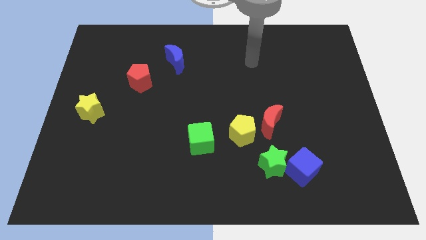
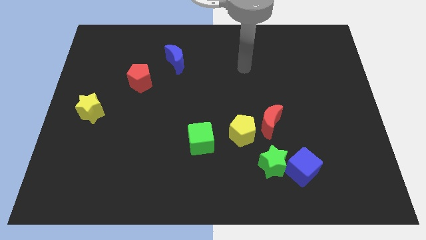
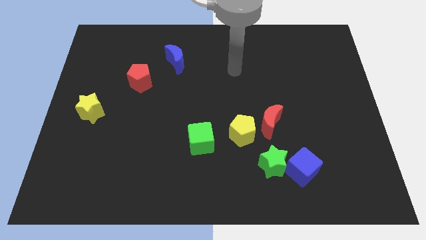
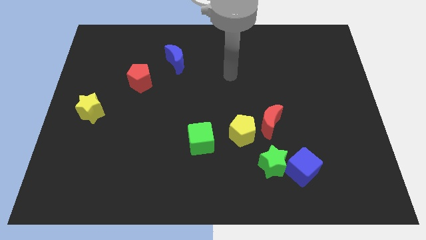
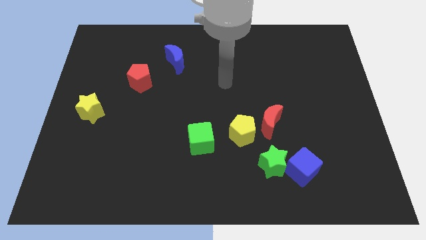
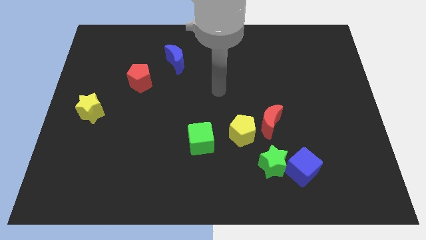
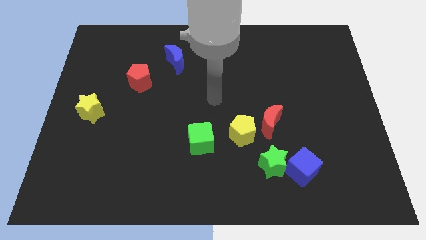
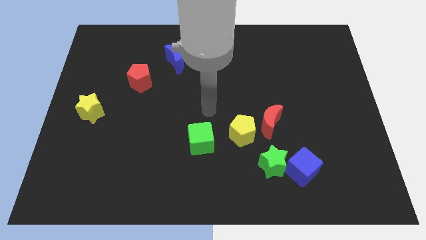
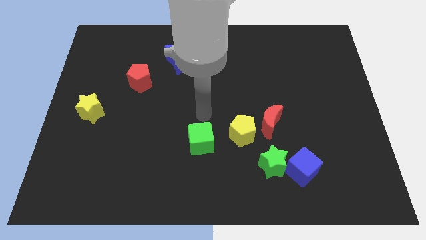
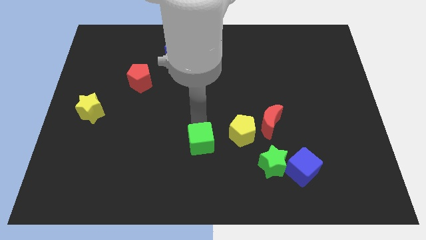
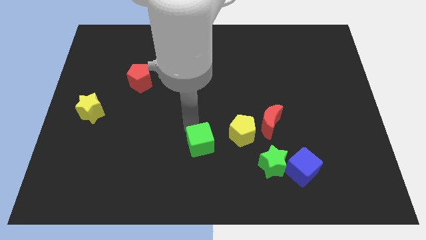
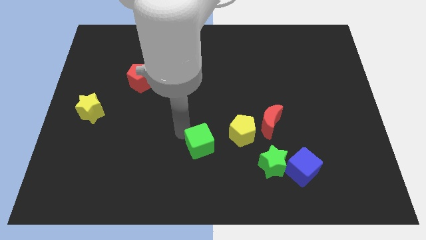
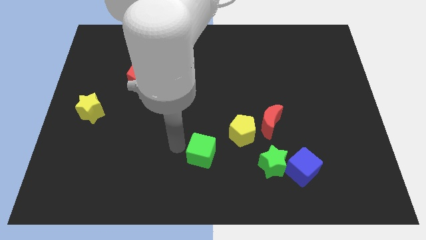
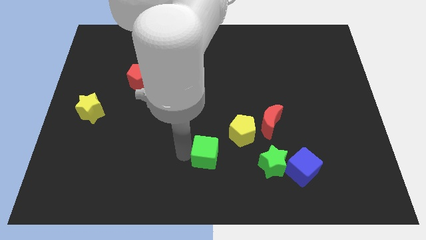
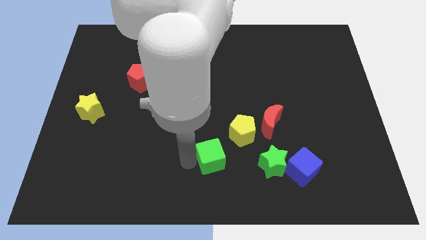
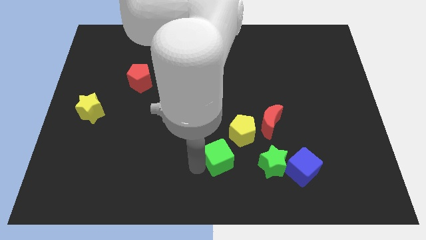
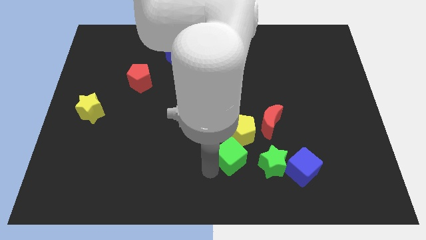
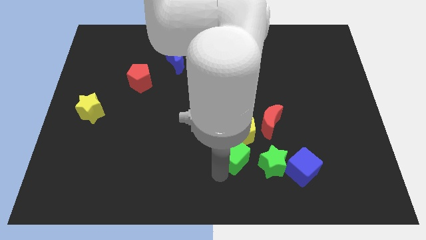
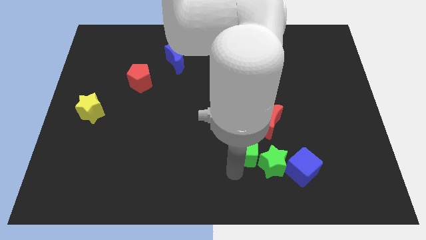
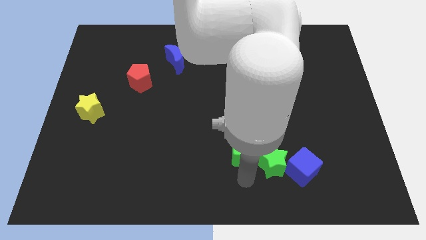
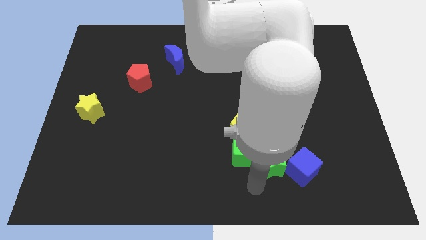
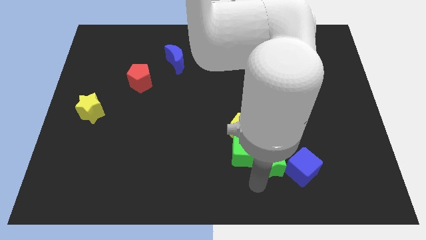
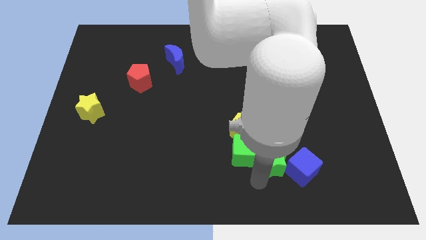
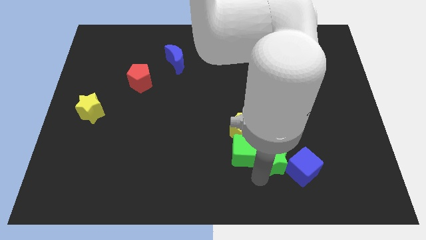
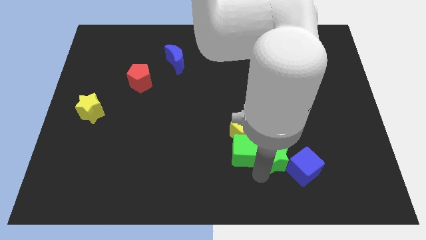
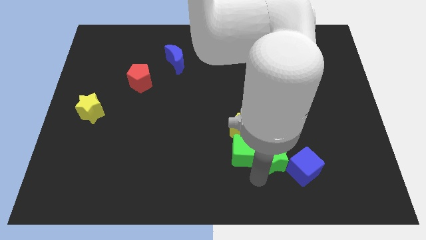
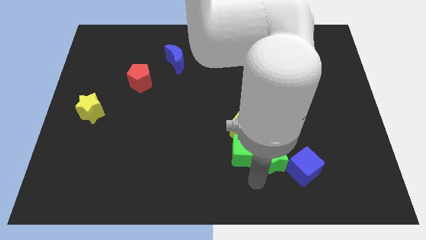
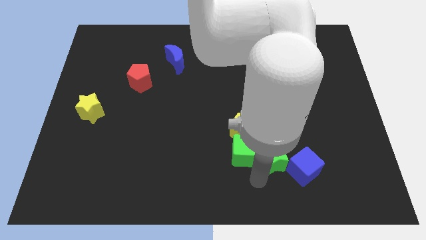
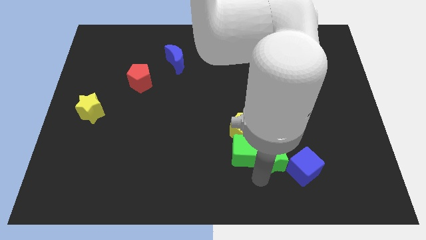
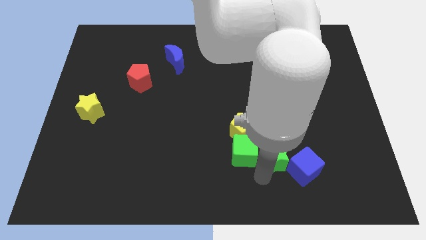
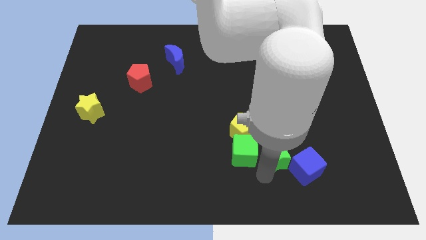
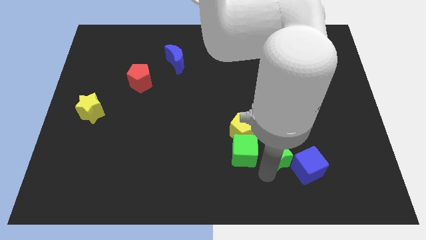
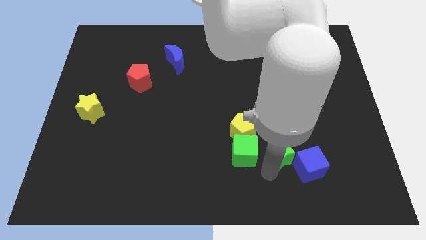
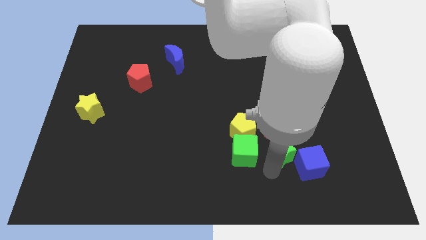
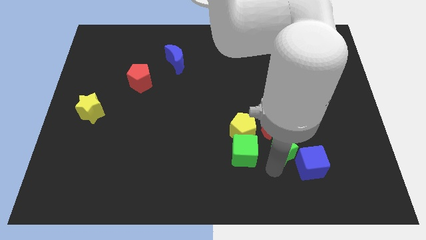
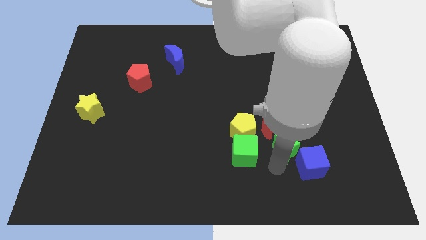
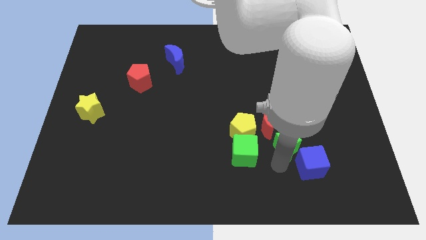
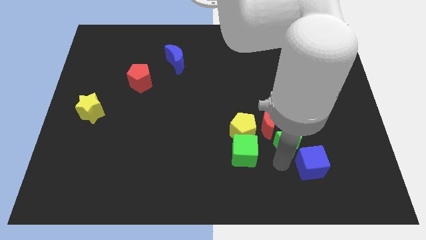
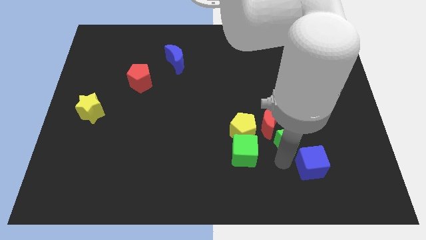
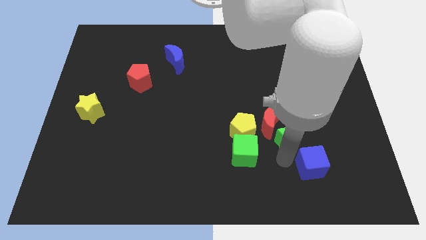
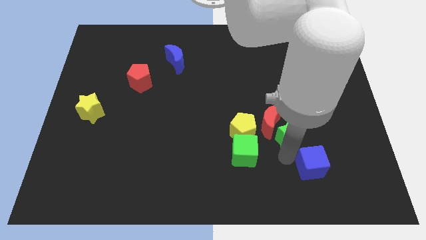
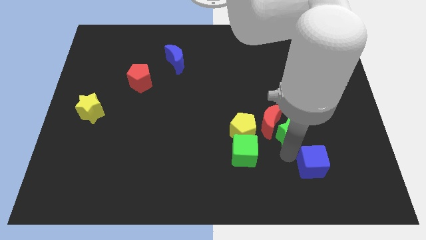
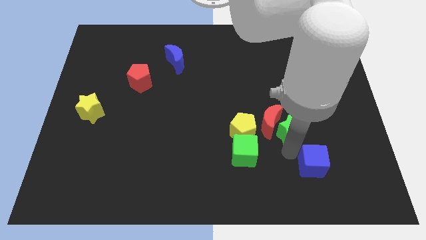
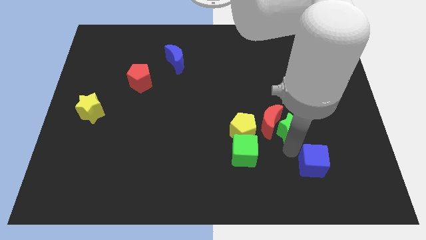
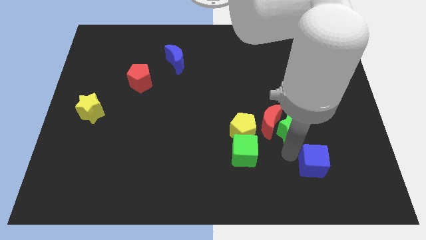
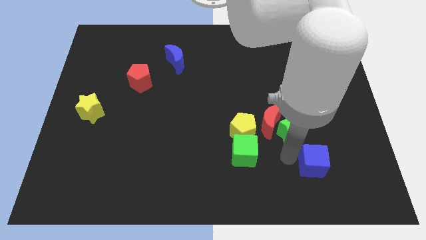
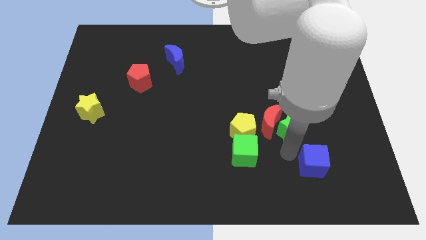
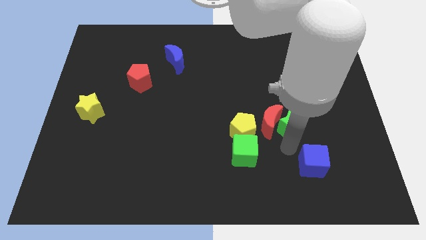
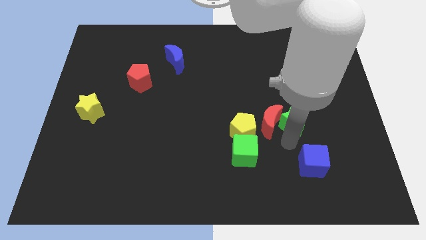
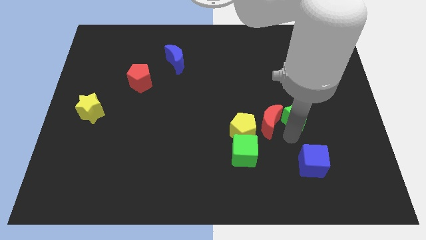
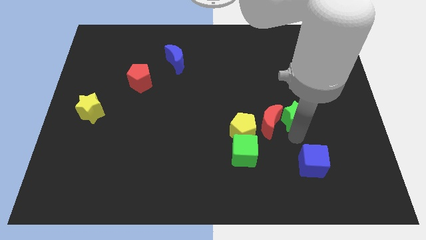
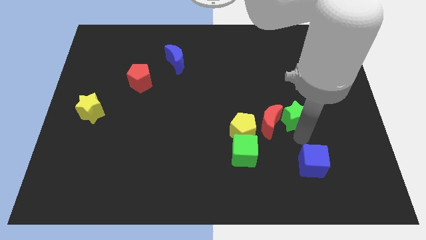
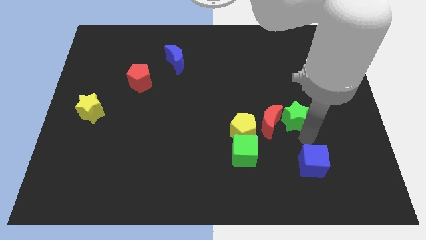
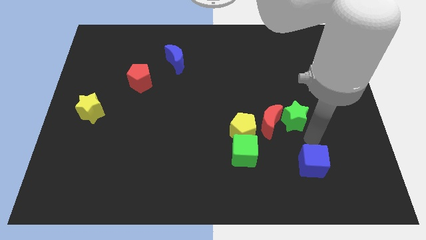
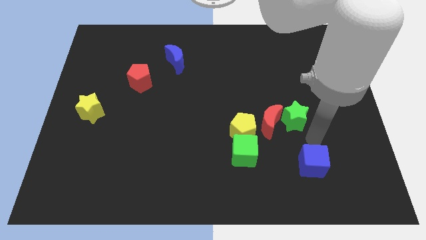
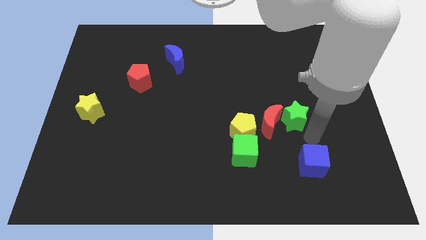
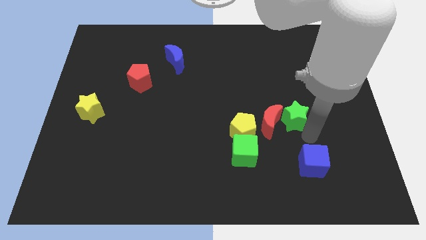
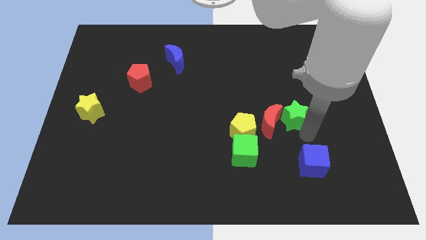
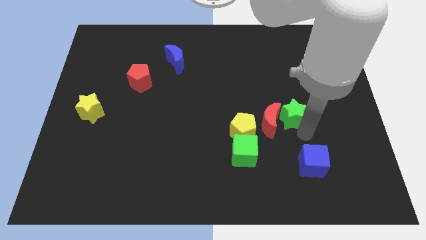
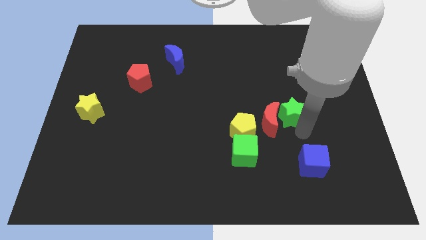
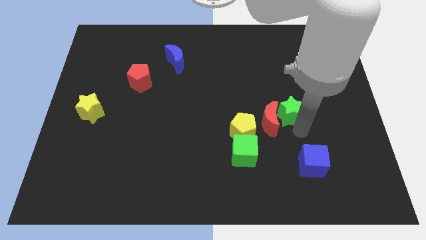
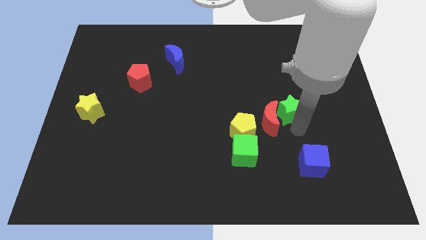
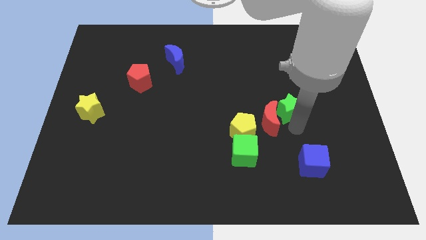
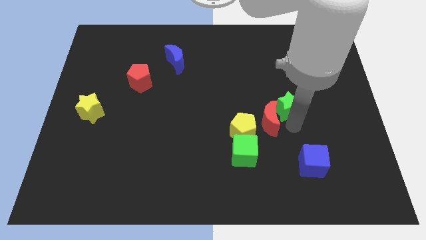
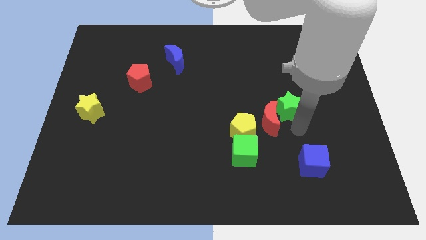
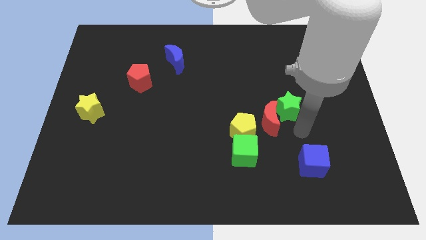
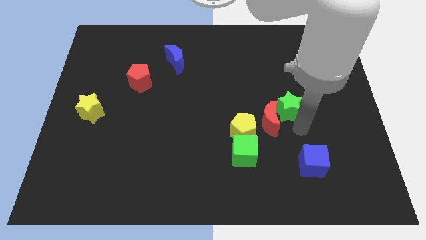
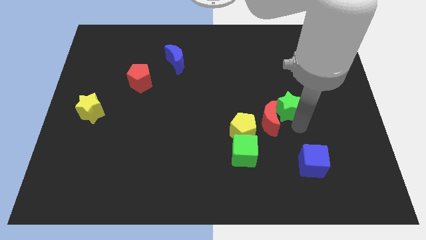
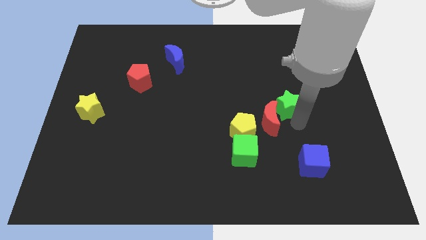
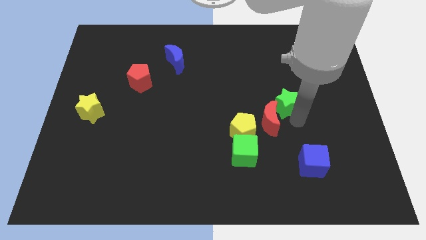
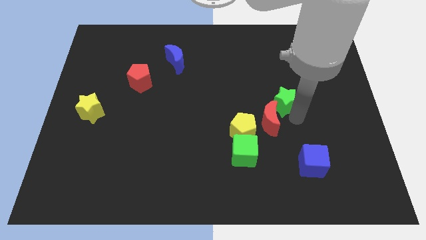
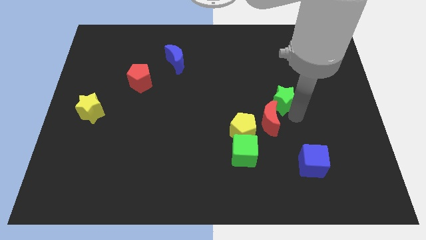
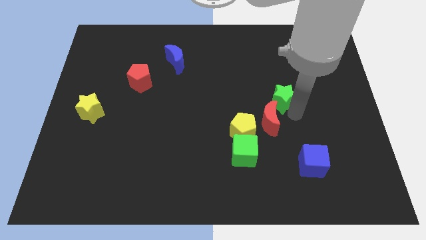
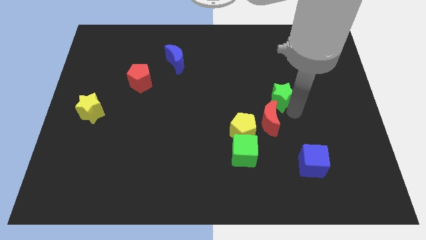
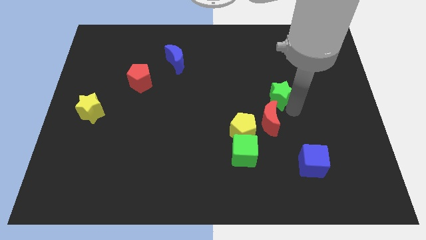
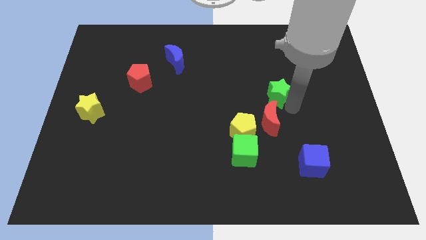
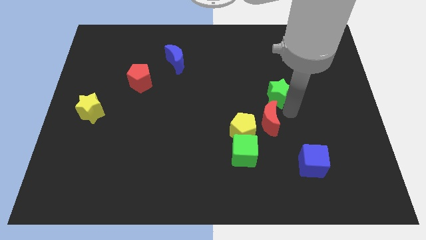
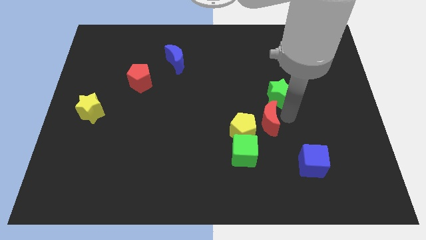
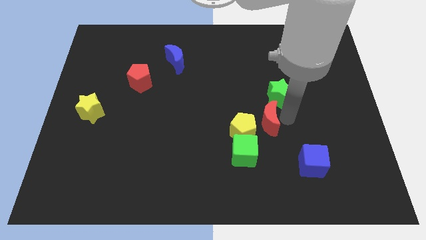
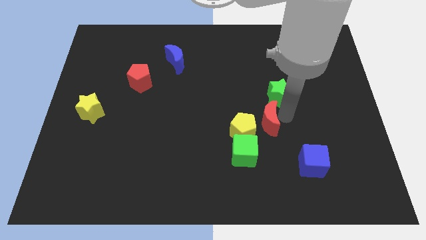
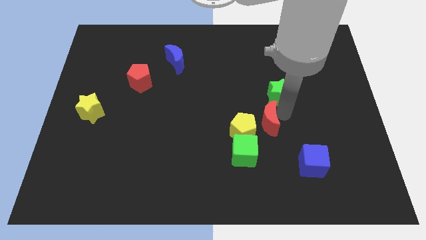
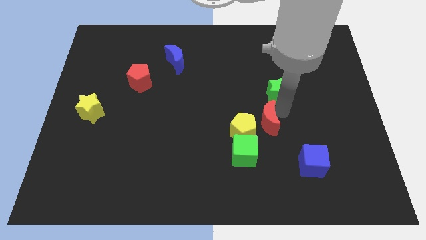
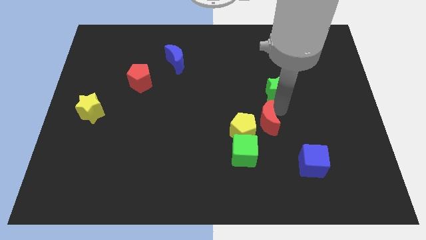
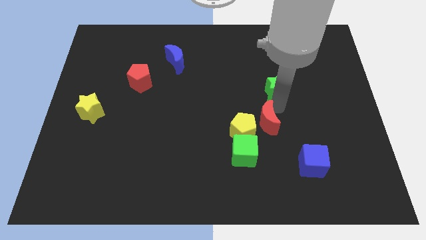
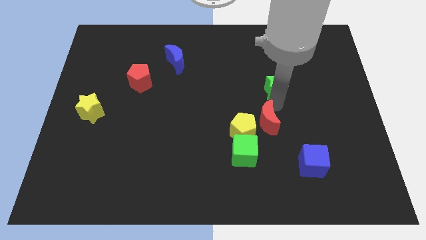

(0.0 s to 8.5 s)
slide the green star upwards
